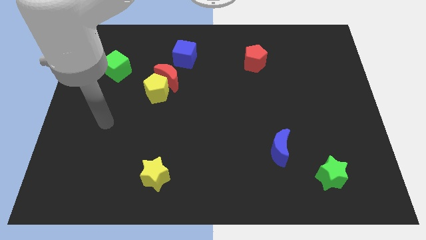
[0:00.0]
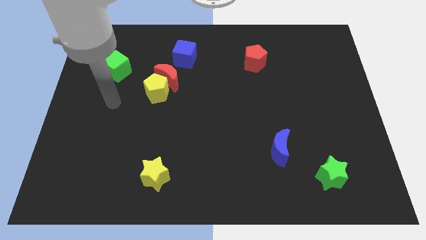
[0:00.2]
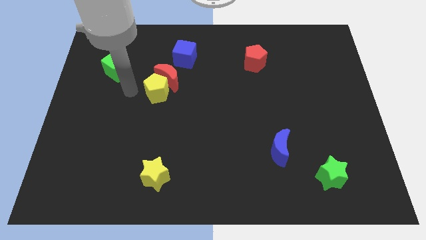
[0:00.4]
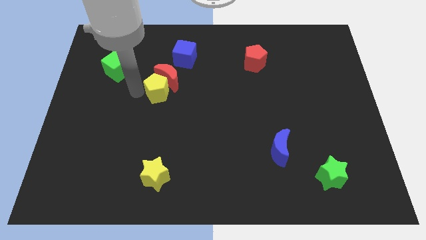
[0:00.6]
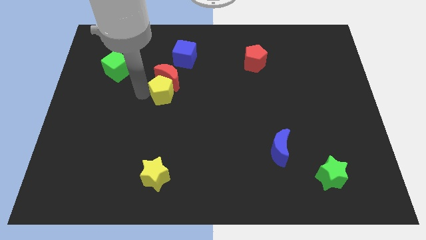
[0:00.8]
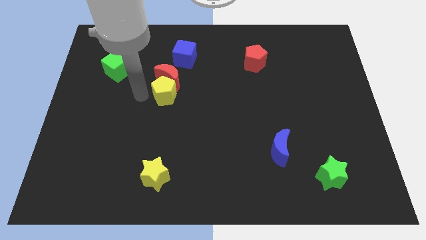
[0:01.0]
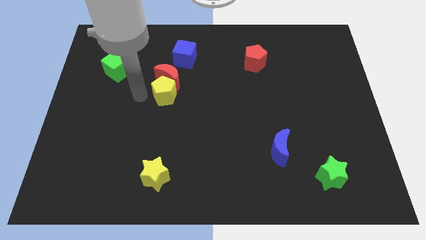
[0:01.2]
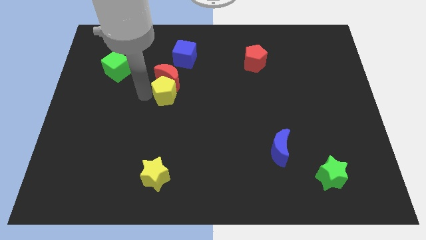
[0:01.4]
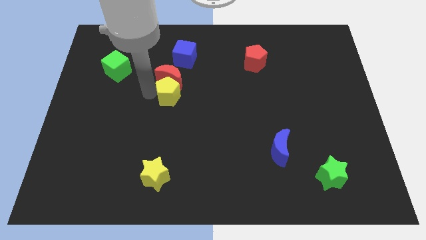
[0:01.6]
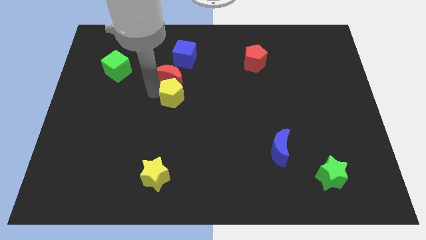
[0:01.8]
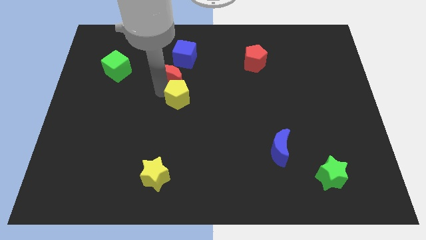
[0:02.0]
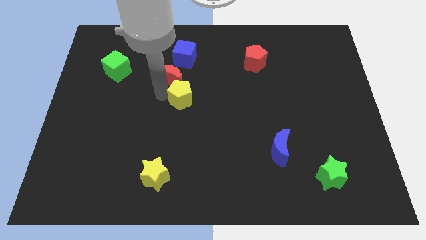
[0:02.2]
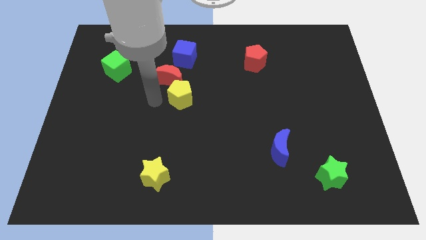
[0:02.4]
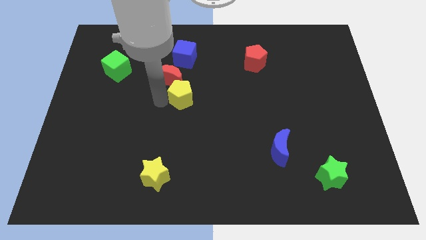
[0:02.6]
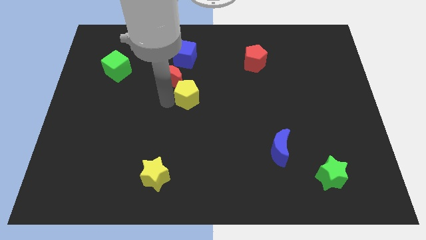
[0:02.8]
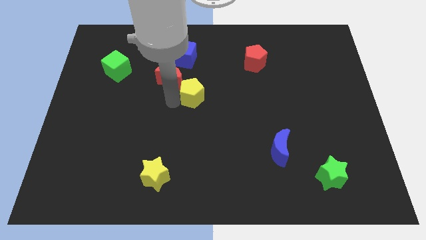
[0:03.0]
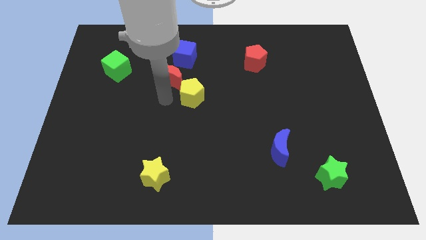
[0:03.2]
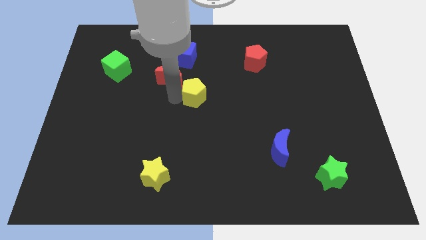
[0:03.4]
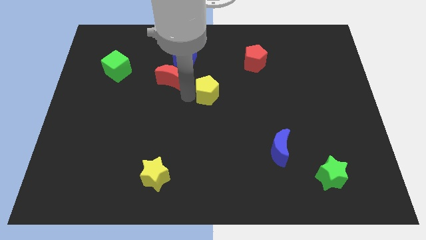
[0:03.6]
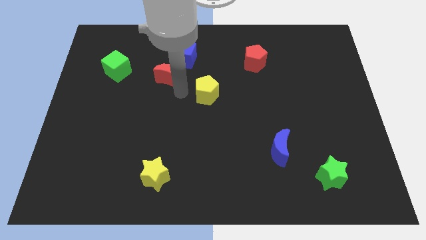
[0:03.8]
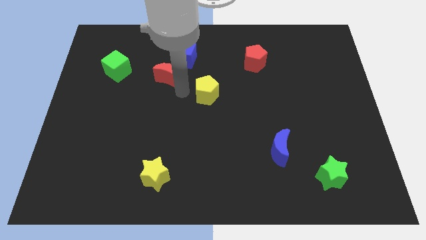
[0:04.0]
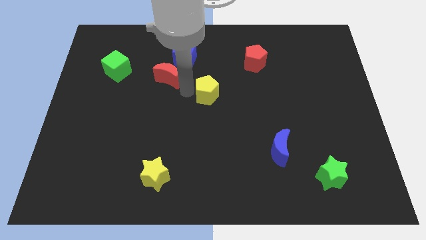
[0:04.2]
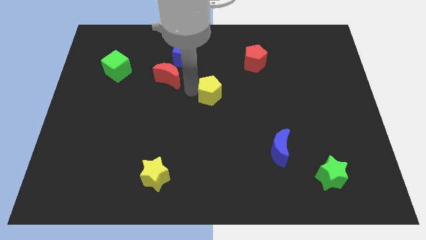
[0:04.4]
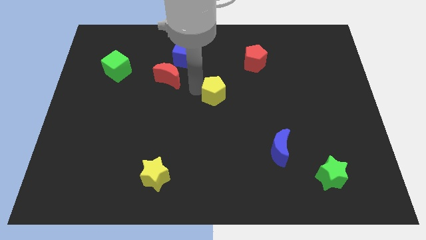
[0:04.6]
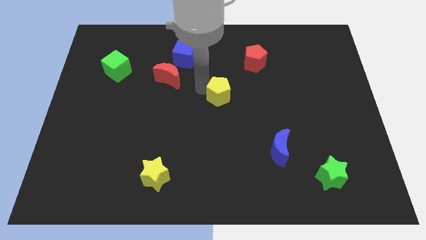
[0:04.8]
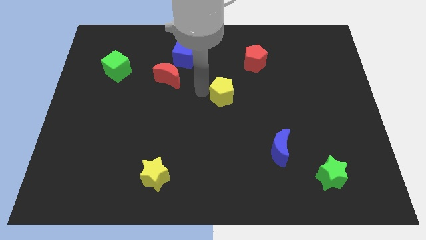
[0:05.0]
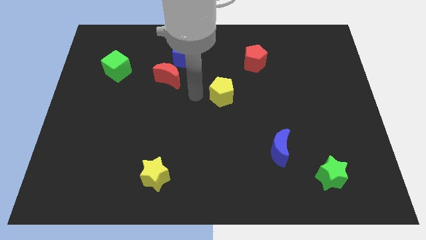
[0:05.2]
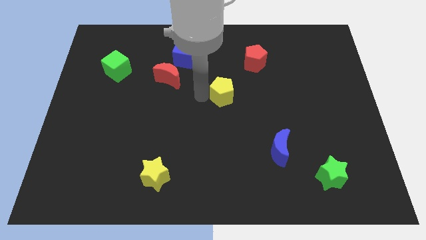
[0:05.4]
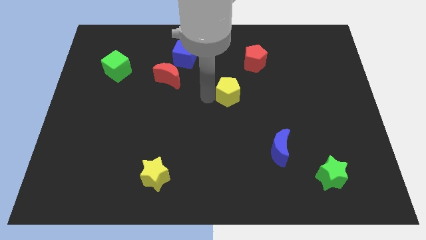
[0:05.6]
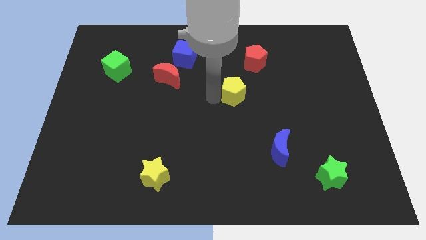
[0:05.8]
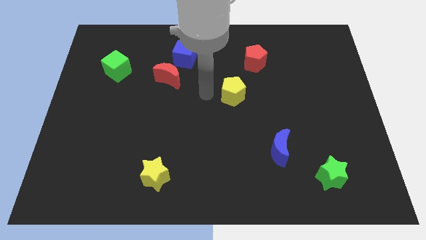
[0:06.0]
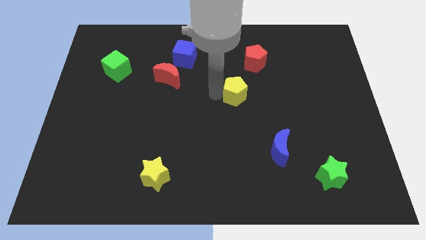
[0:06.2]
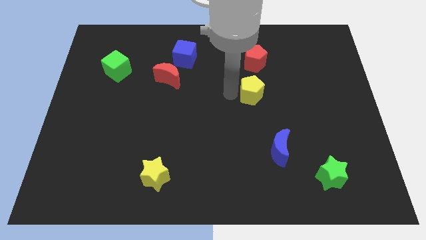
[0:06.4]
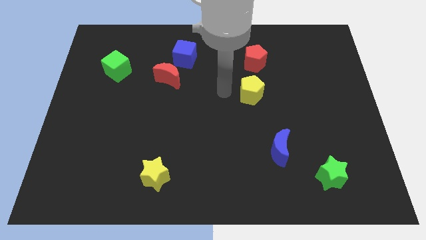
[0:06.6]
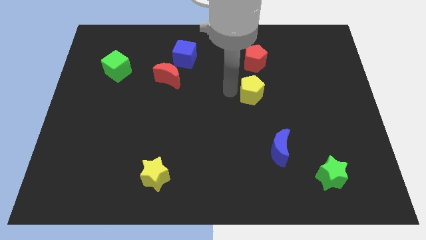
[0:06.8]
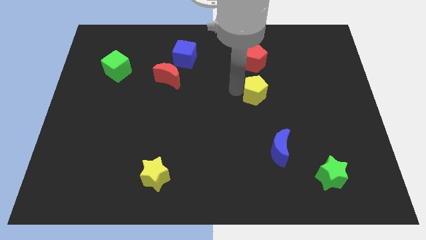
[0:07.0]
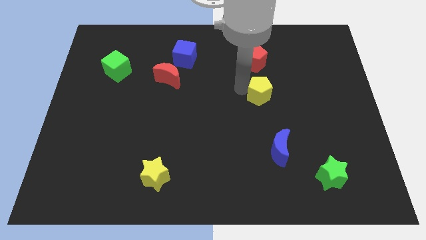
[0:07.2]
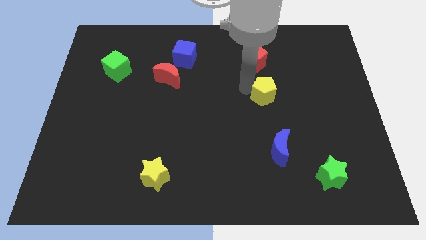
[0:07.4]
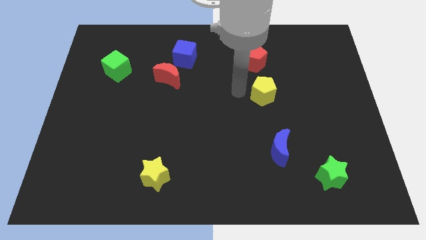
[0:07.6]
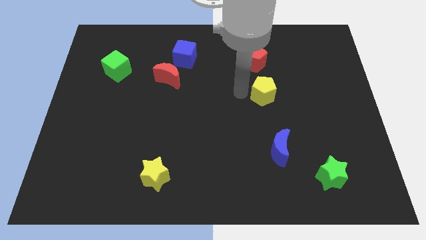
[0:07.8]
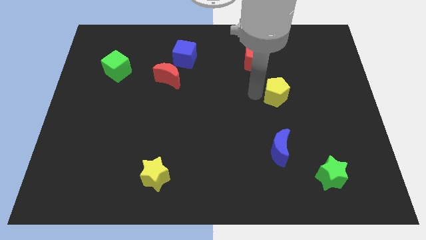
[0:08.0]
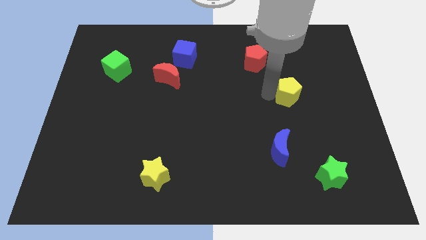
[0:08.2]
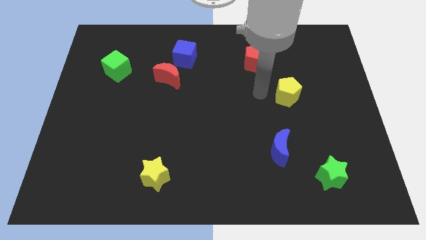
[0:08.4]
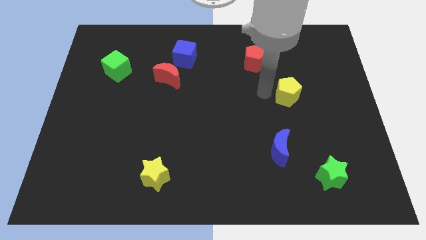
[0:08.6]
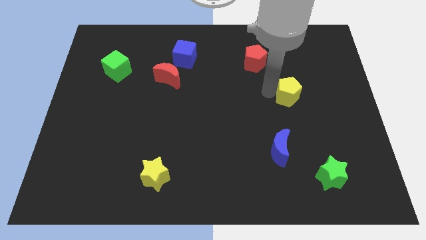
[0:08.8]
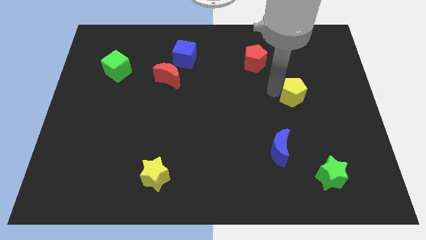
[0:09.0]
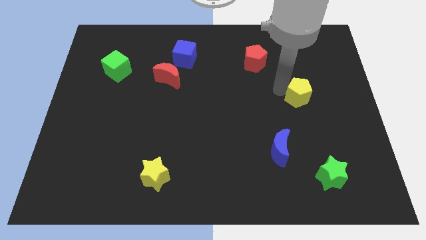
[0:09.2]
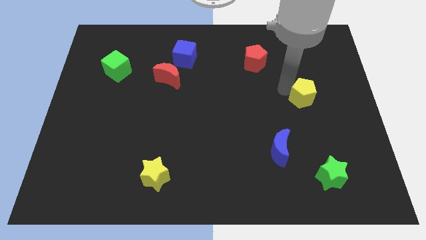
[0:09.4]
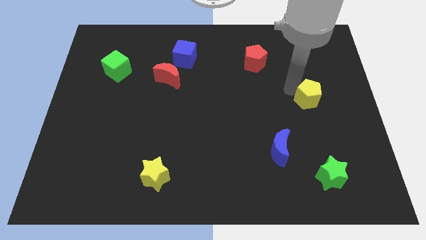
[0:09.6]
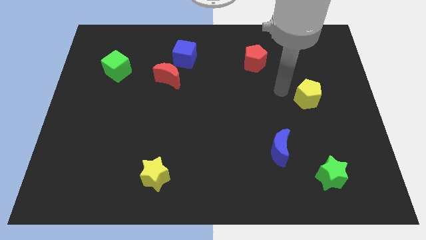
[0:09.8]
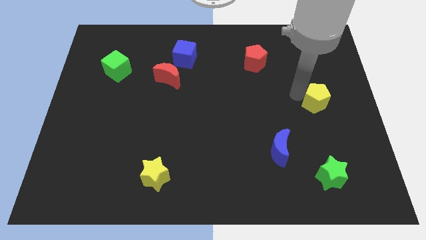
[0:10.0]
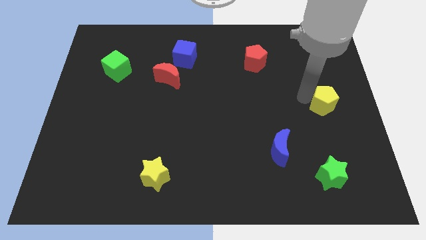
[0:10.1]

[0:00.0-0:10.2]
put the yellow pentagon to the right side

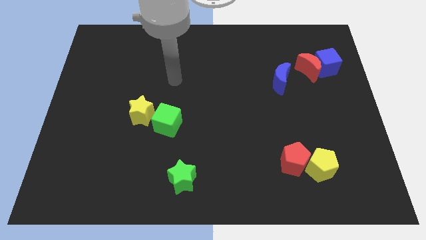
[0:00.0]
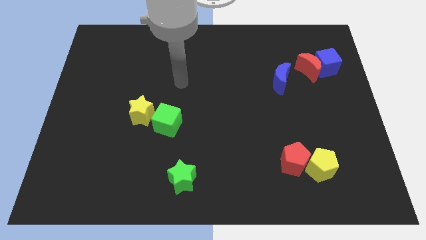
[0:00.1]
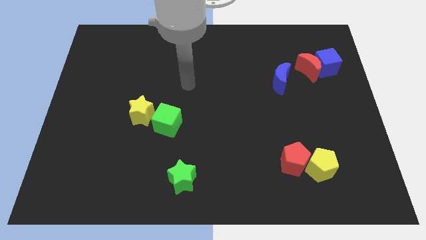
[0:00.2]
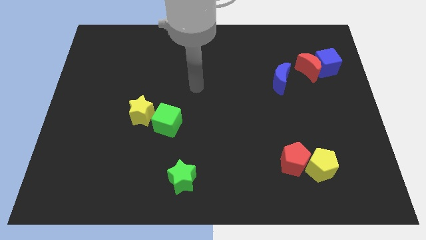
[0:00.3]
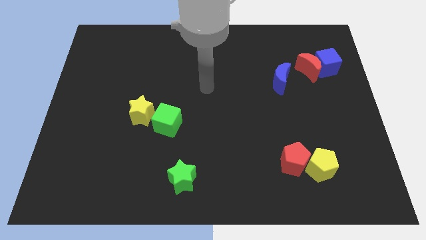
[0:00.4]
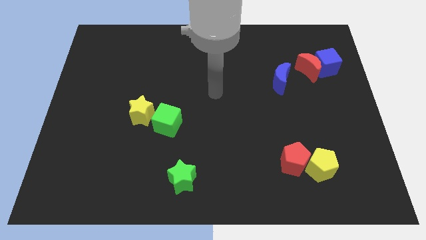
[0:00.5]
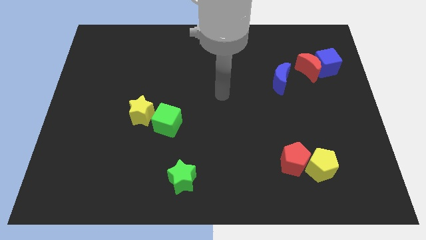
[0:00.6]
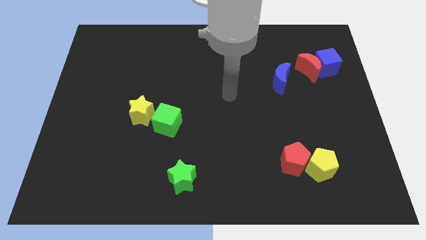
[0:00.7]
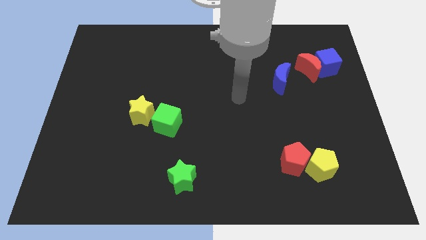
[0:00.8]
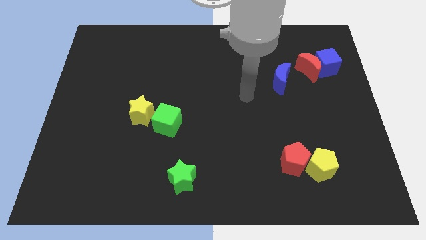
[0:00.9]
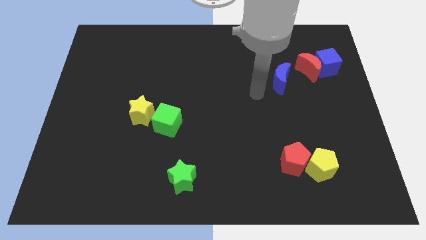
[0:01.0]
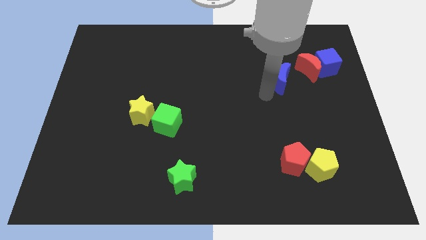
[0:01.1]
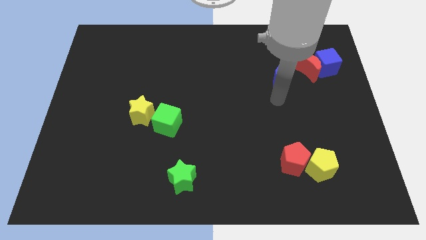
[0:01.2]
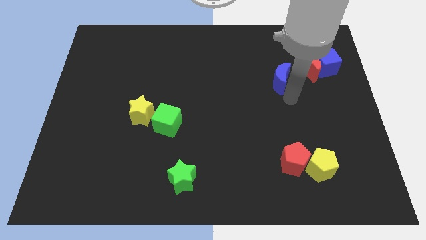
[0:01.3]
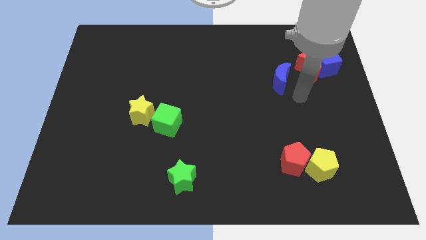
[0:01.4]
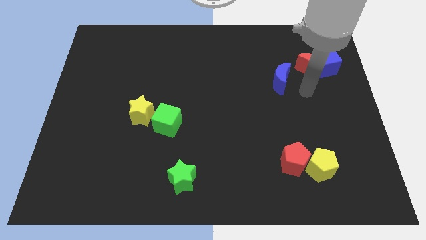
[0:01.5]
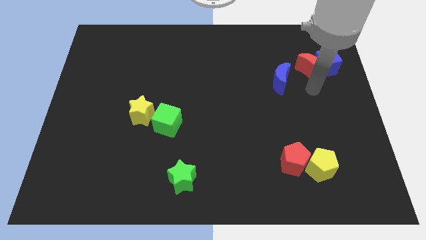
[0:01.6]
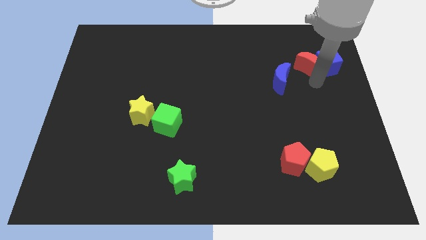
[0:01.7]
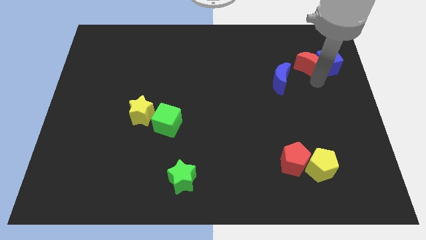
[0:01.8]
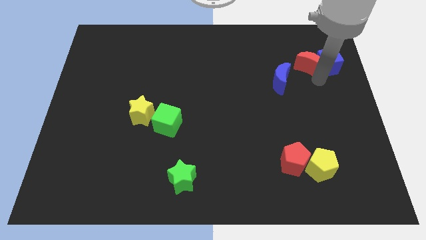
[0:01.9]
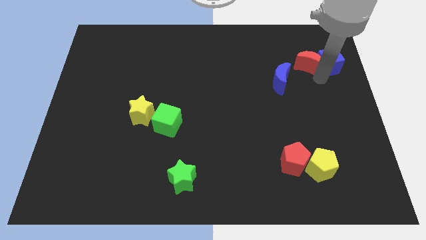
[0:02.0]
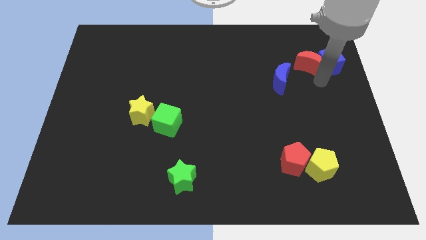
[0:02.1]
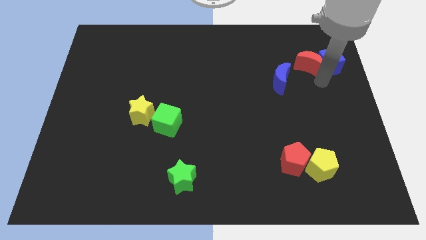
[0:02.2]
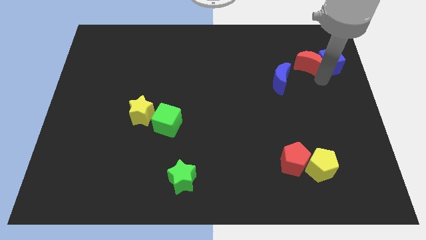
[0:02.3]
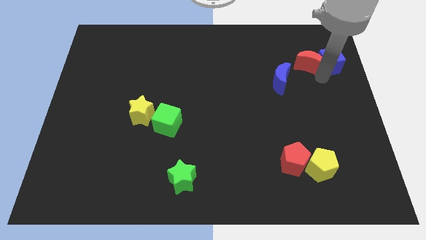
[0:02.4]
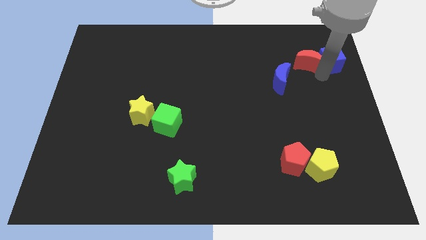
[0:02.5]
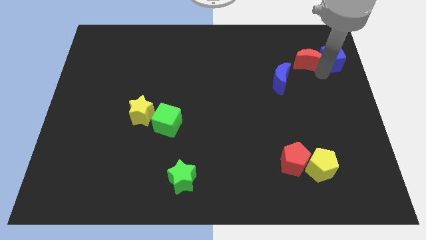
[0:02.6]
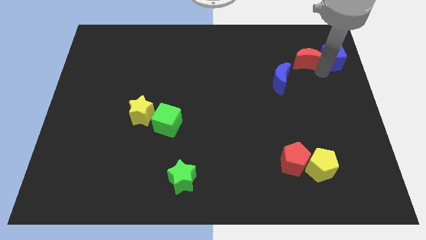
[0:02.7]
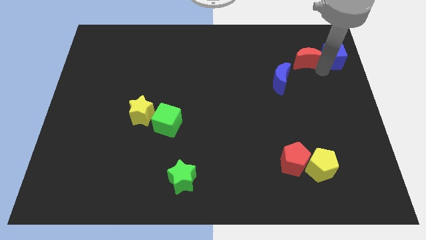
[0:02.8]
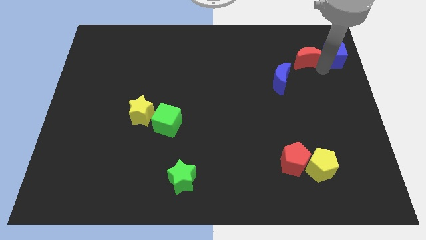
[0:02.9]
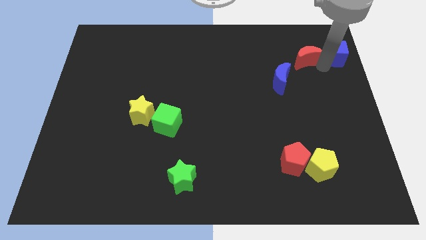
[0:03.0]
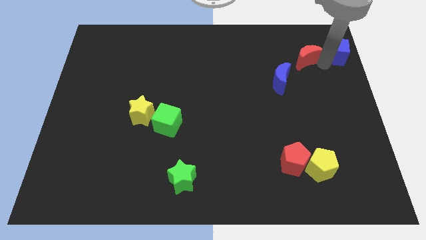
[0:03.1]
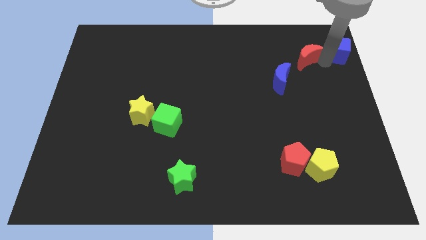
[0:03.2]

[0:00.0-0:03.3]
push the blue cube to the top right of the board
